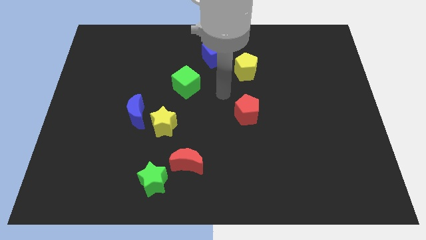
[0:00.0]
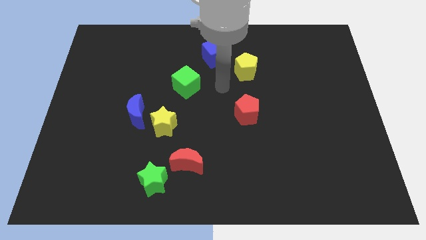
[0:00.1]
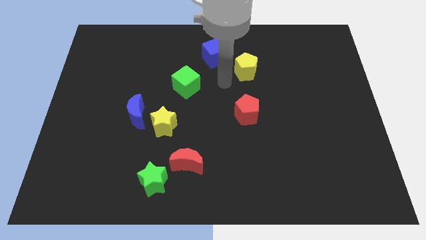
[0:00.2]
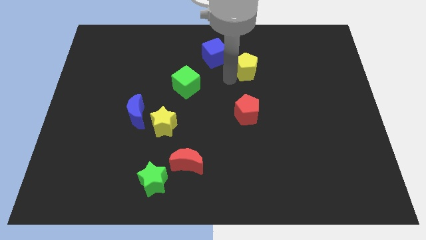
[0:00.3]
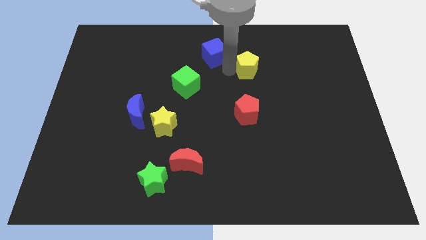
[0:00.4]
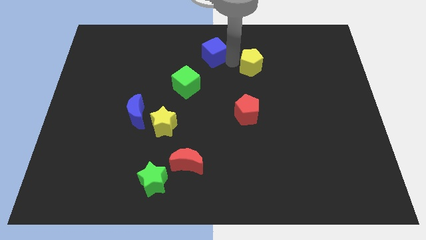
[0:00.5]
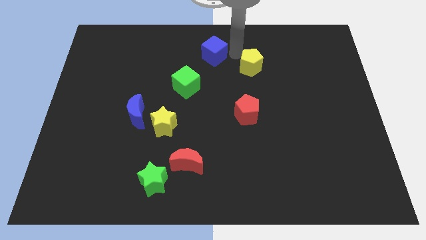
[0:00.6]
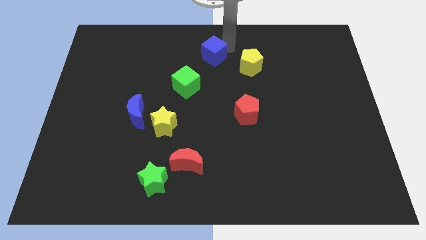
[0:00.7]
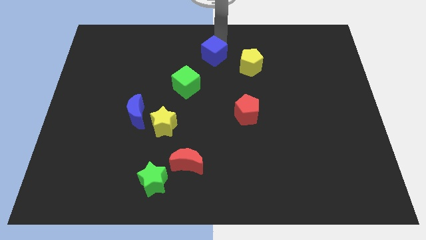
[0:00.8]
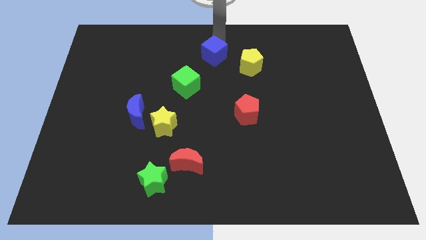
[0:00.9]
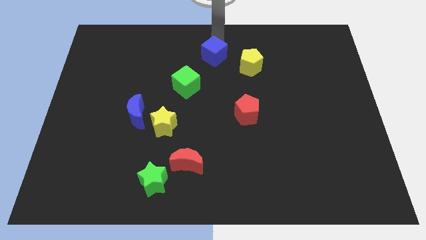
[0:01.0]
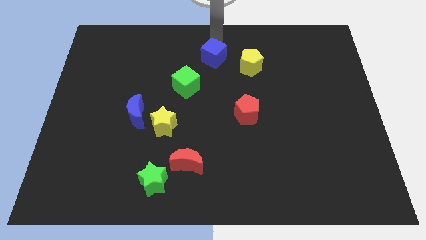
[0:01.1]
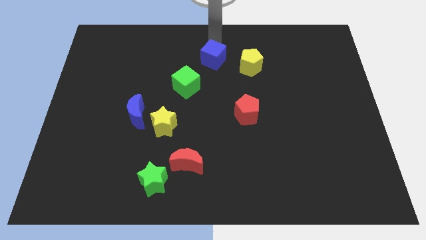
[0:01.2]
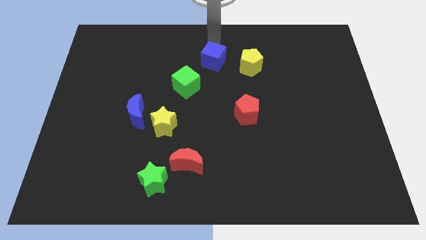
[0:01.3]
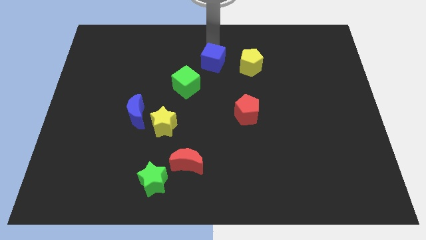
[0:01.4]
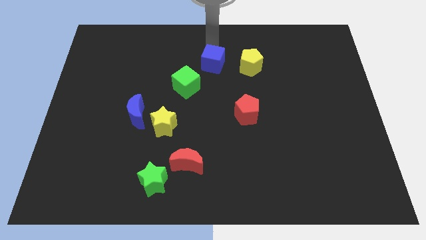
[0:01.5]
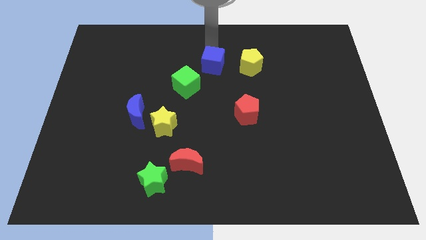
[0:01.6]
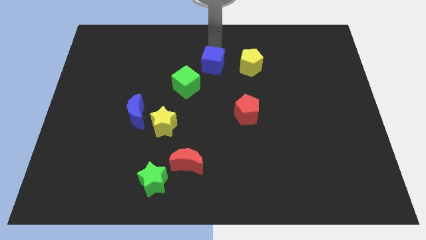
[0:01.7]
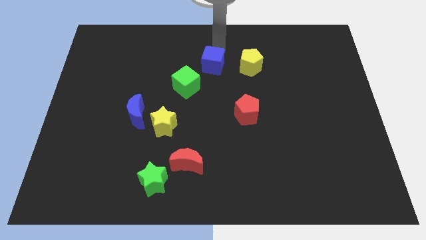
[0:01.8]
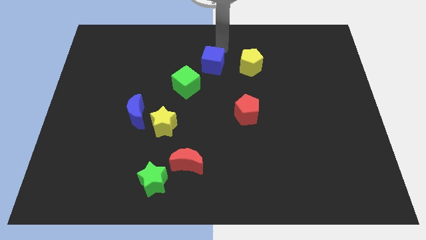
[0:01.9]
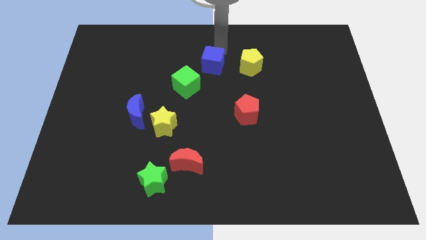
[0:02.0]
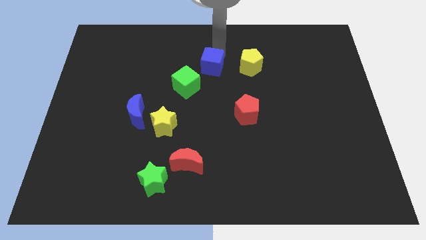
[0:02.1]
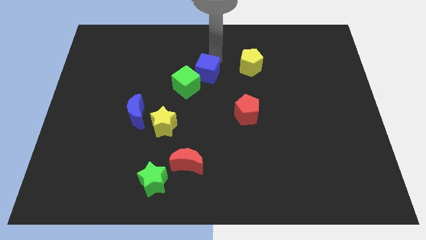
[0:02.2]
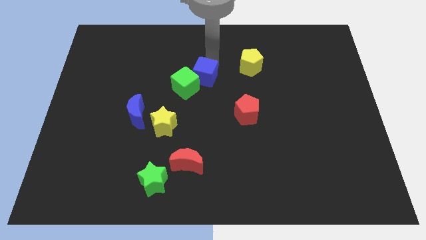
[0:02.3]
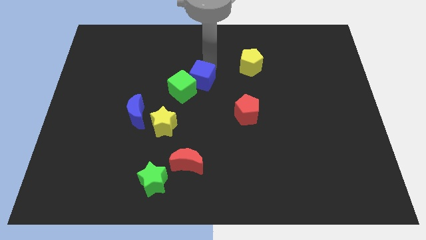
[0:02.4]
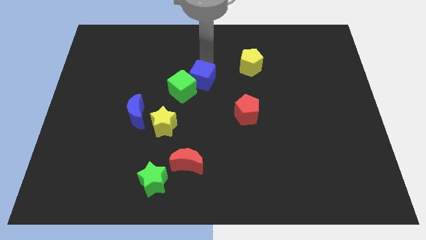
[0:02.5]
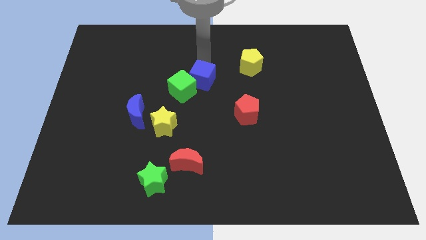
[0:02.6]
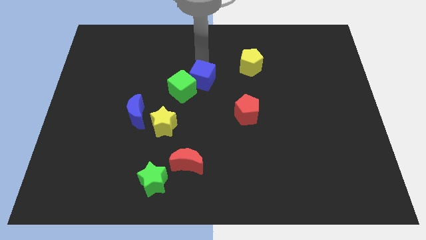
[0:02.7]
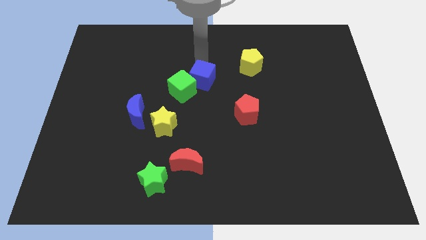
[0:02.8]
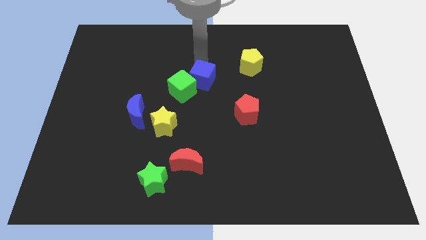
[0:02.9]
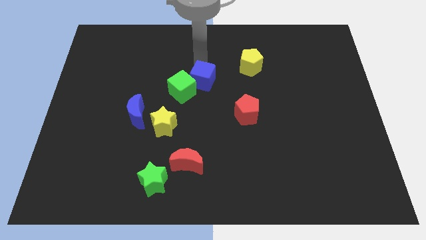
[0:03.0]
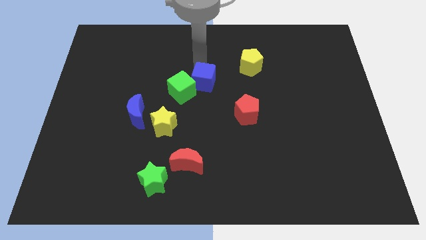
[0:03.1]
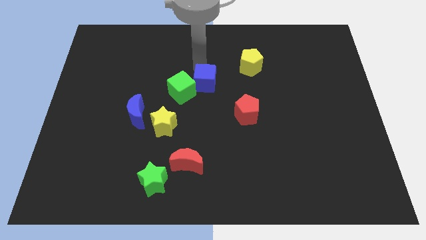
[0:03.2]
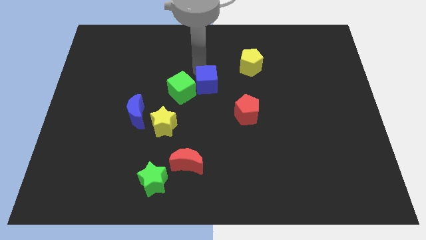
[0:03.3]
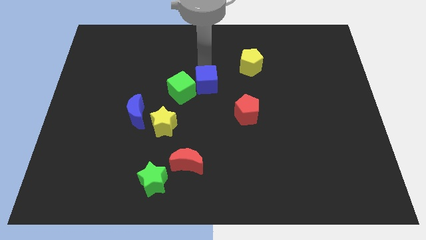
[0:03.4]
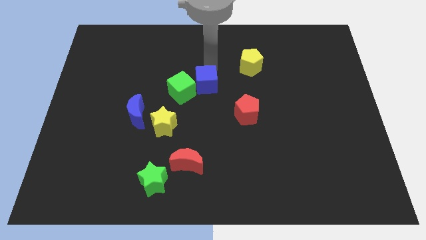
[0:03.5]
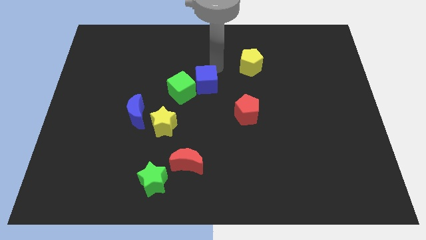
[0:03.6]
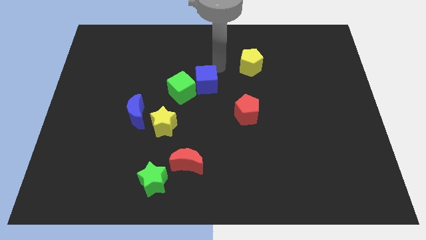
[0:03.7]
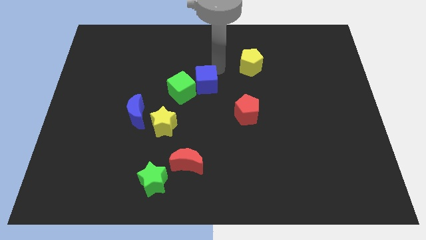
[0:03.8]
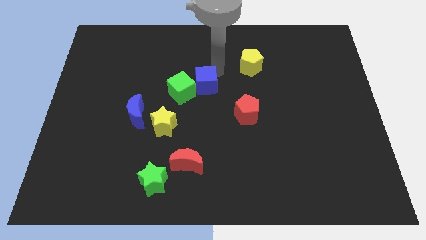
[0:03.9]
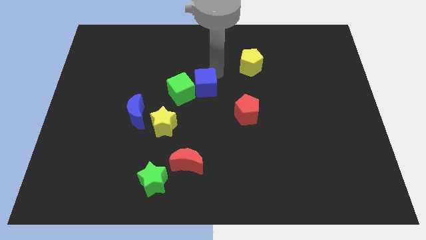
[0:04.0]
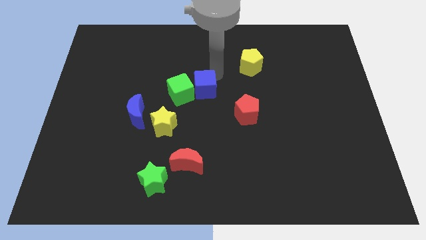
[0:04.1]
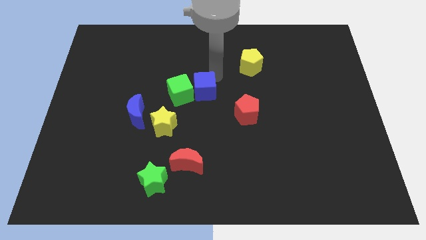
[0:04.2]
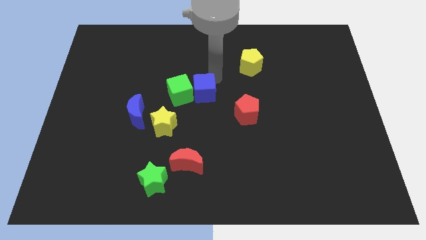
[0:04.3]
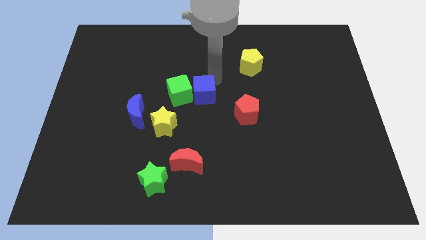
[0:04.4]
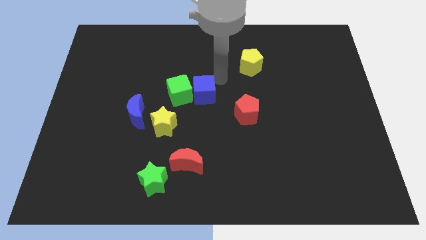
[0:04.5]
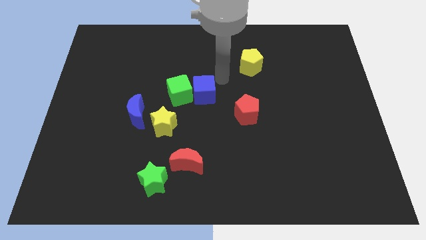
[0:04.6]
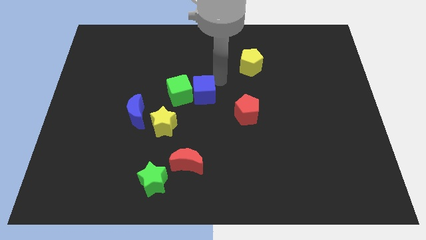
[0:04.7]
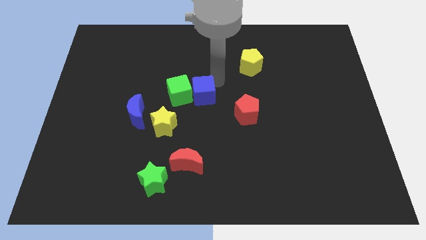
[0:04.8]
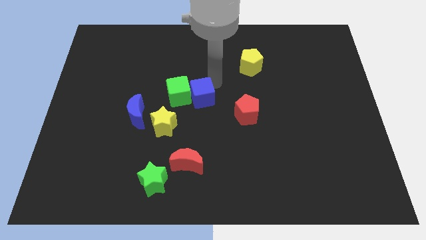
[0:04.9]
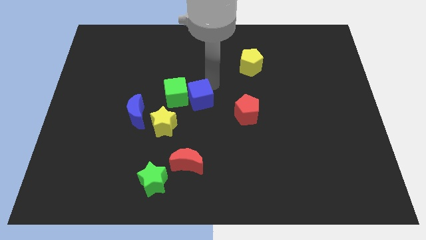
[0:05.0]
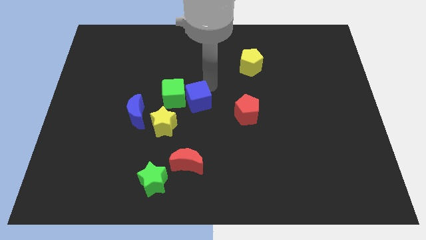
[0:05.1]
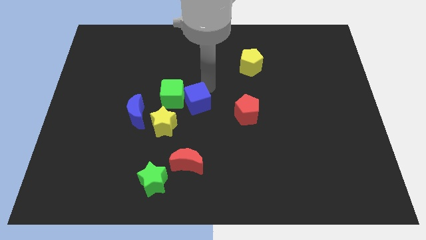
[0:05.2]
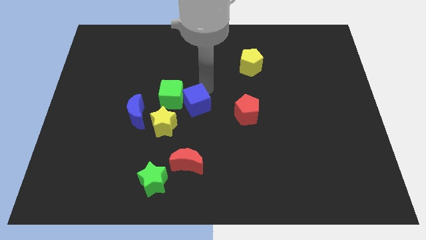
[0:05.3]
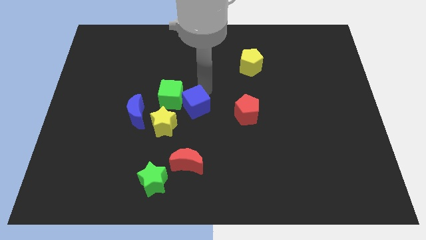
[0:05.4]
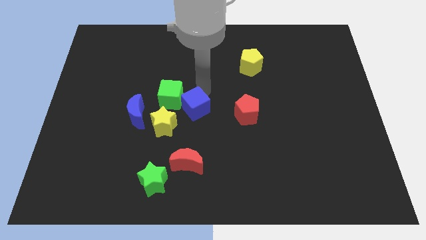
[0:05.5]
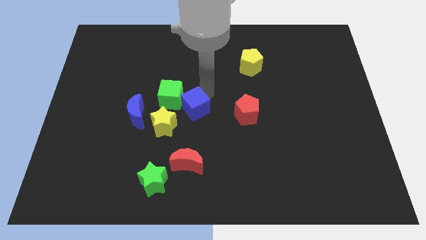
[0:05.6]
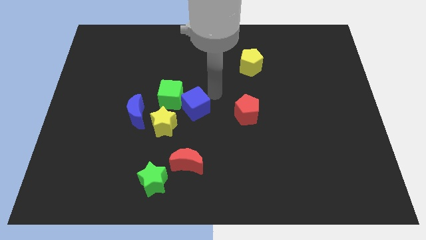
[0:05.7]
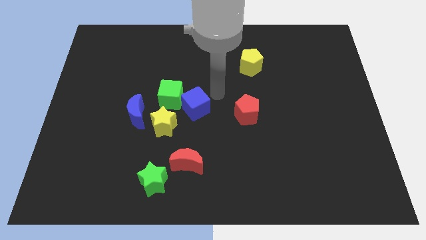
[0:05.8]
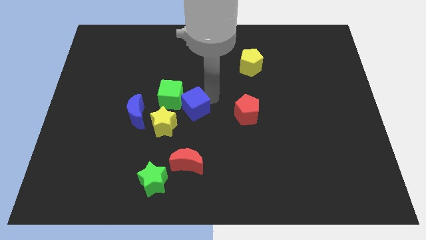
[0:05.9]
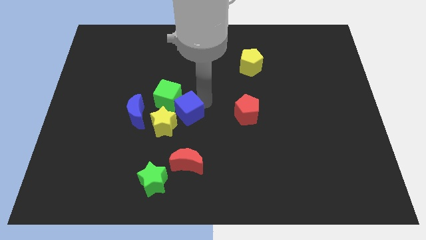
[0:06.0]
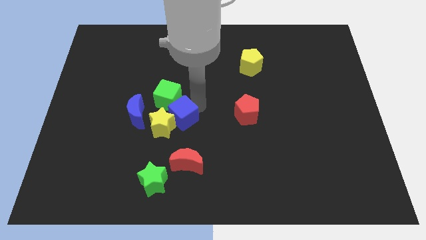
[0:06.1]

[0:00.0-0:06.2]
slide the blue cube next to the yellow star

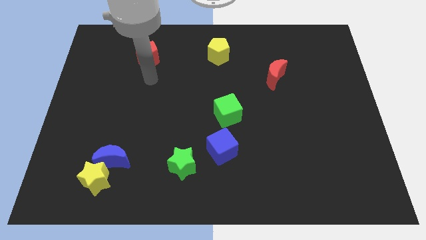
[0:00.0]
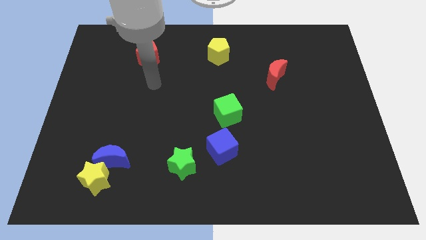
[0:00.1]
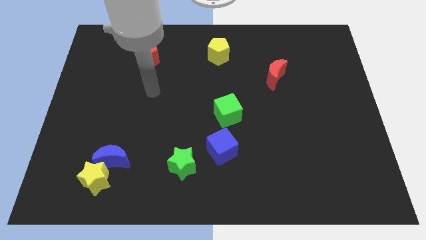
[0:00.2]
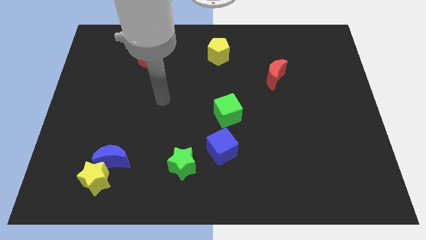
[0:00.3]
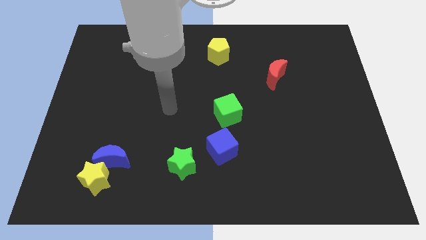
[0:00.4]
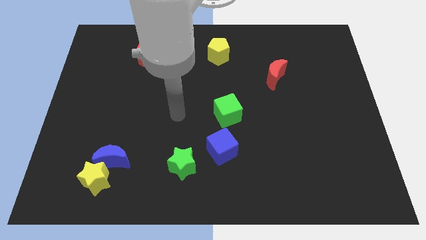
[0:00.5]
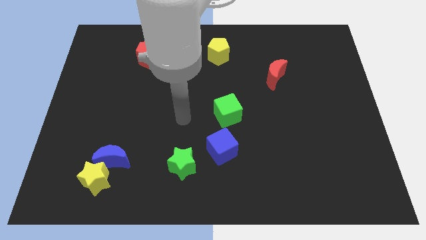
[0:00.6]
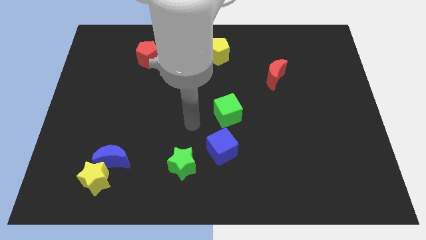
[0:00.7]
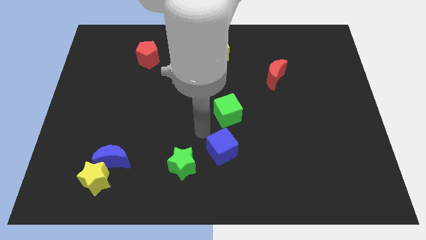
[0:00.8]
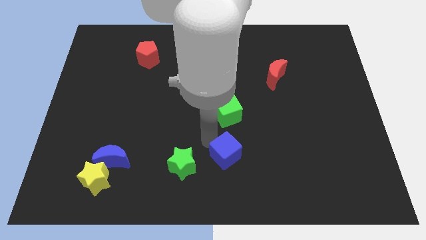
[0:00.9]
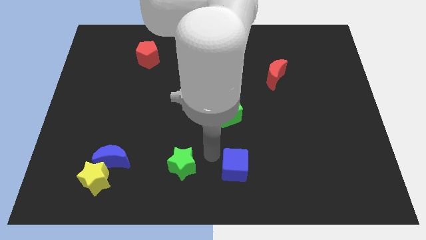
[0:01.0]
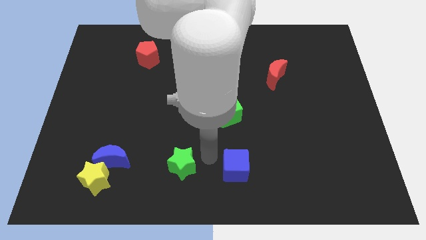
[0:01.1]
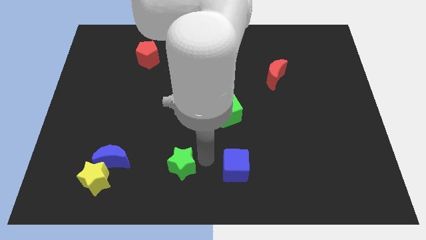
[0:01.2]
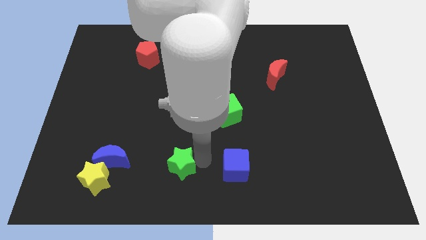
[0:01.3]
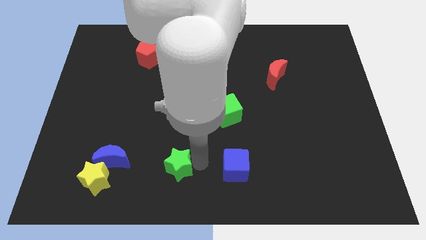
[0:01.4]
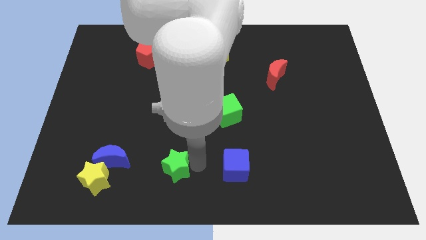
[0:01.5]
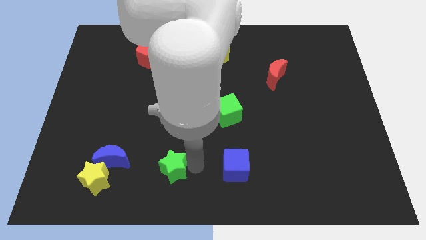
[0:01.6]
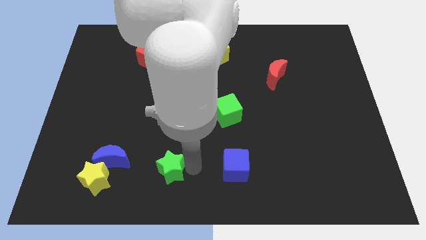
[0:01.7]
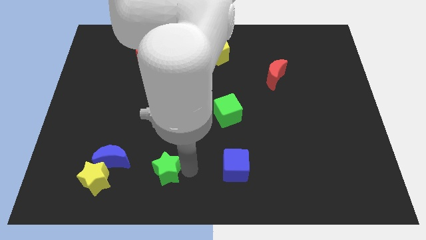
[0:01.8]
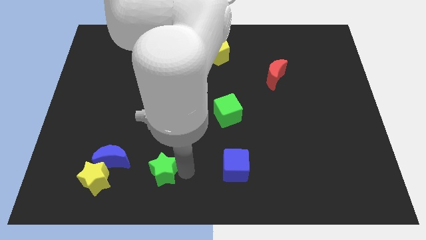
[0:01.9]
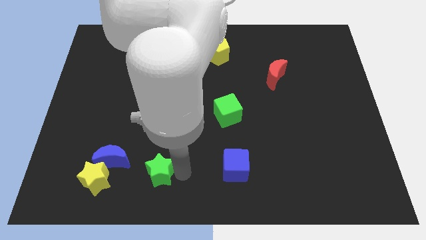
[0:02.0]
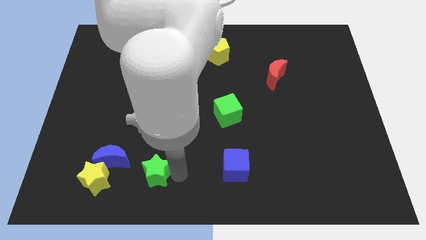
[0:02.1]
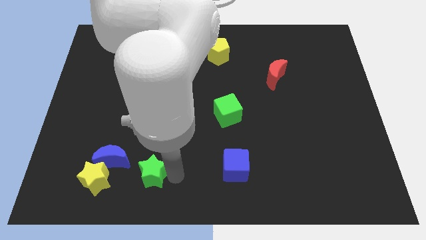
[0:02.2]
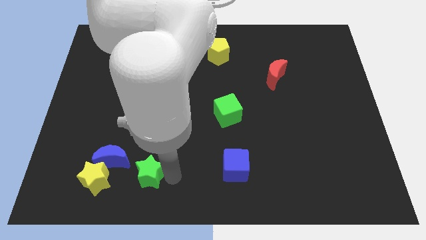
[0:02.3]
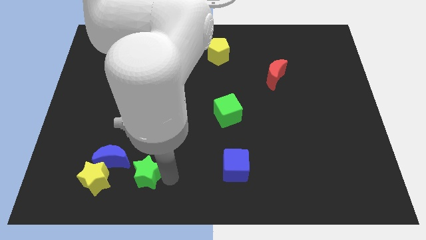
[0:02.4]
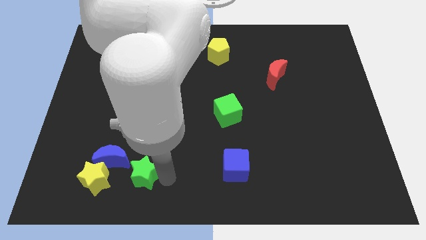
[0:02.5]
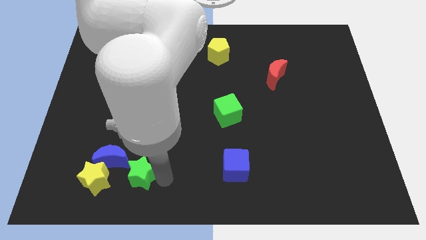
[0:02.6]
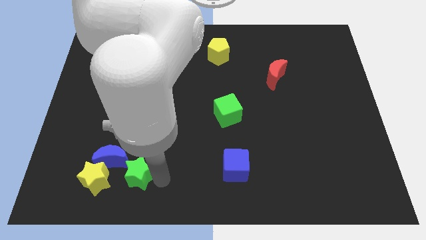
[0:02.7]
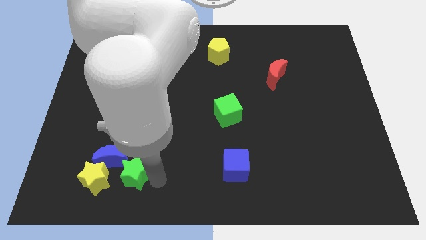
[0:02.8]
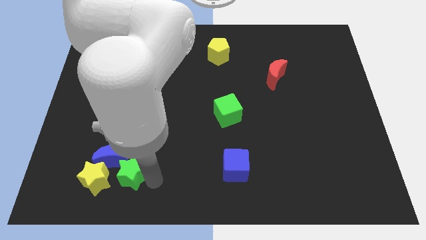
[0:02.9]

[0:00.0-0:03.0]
move the green star towards the blue moon
